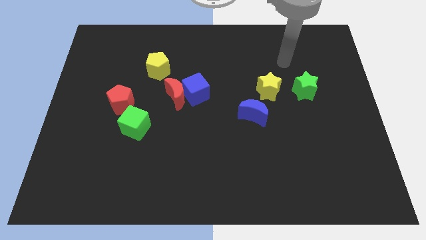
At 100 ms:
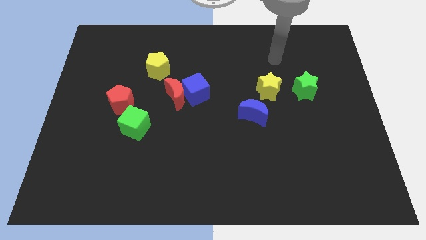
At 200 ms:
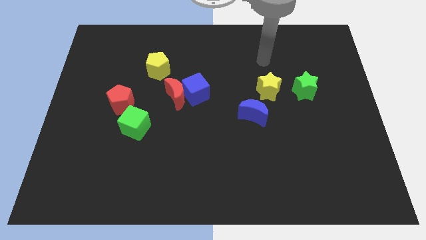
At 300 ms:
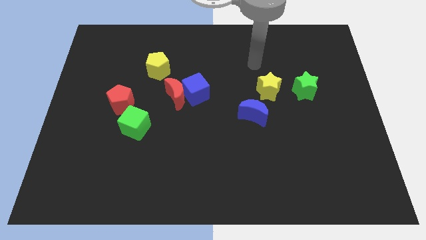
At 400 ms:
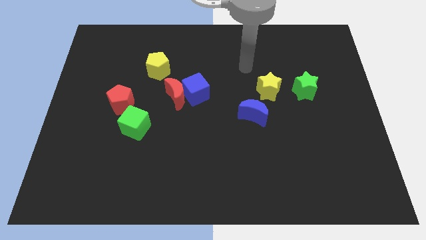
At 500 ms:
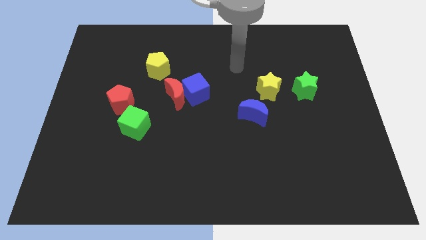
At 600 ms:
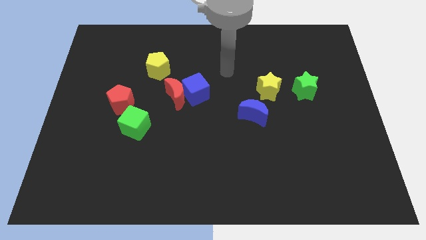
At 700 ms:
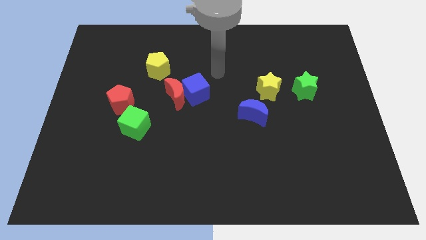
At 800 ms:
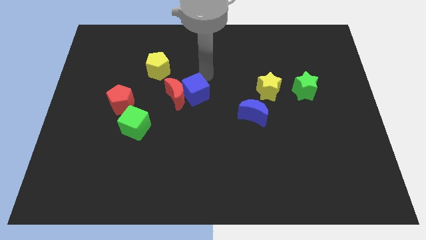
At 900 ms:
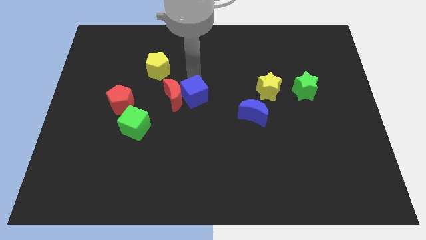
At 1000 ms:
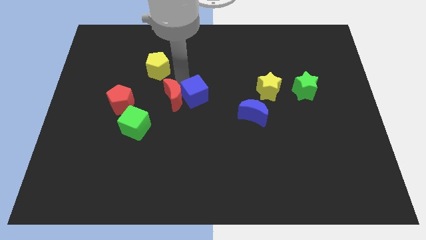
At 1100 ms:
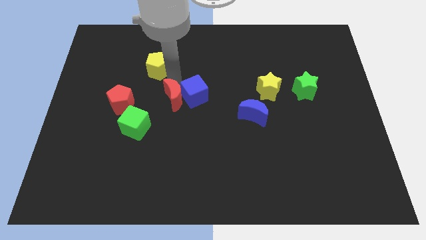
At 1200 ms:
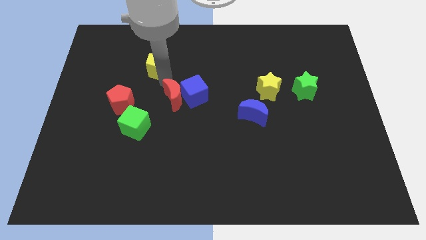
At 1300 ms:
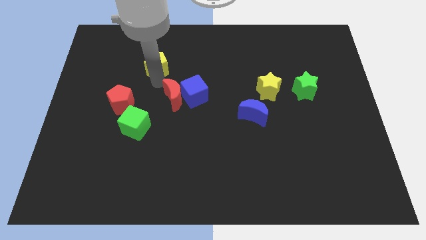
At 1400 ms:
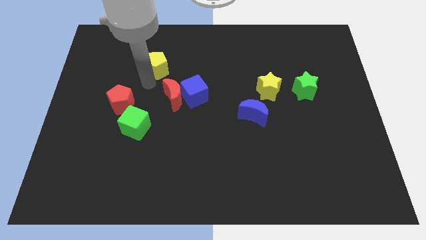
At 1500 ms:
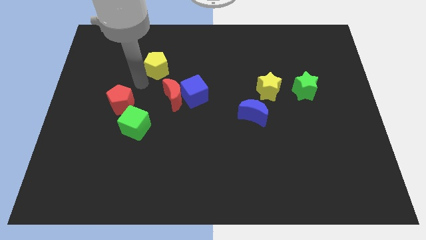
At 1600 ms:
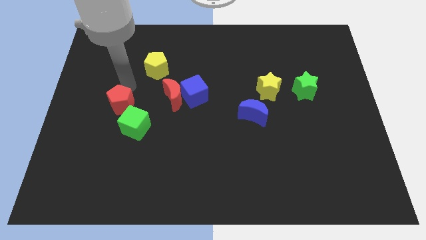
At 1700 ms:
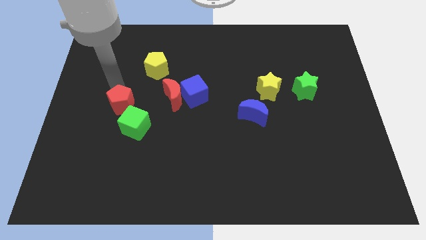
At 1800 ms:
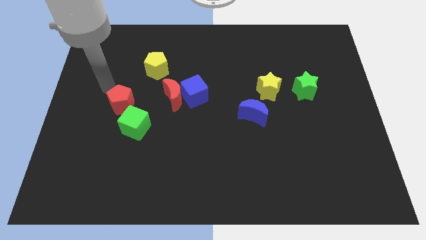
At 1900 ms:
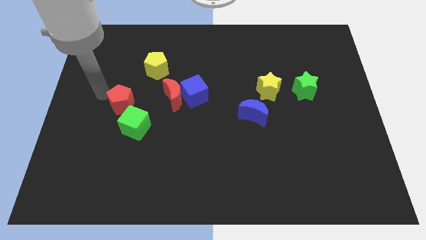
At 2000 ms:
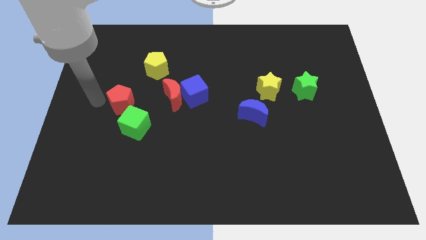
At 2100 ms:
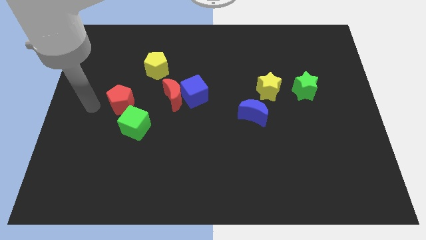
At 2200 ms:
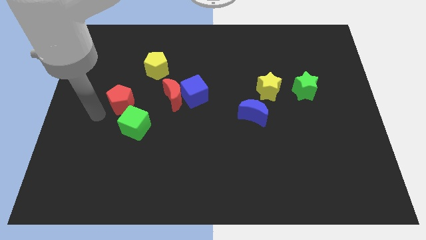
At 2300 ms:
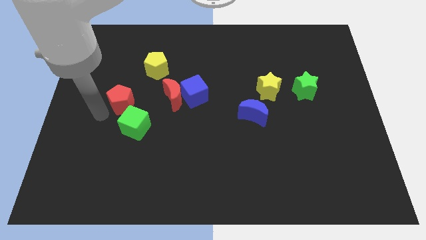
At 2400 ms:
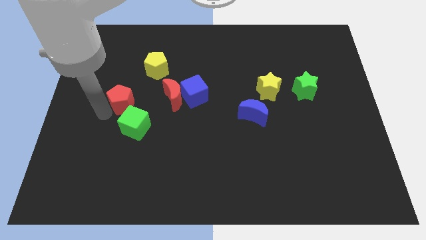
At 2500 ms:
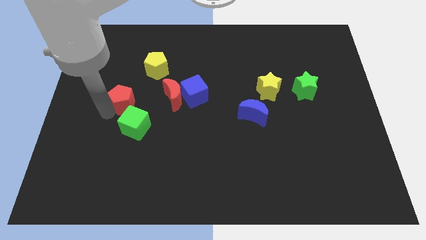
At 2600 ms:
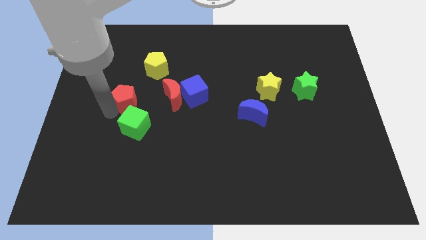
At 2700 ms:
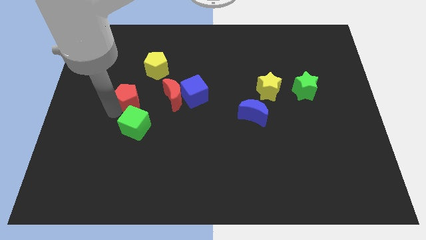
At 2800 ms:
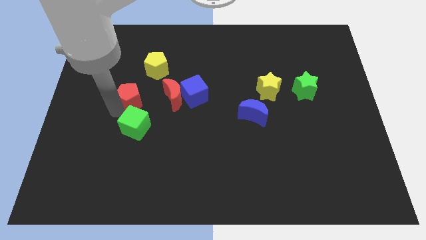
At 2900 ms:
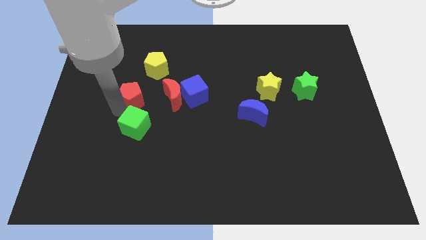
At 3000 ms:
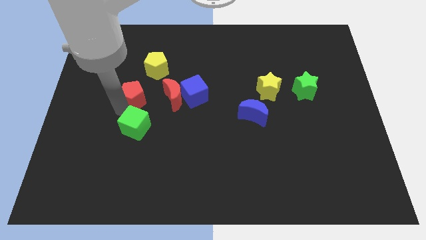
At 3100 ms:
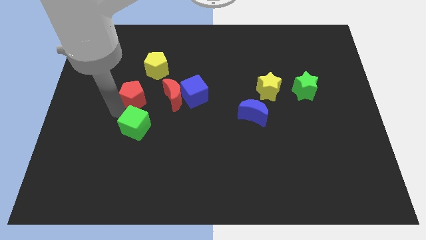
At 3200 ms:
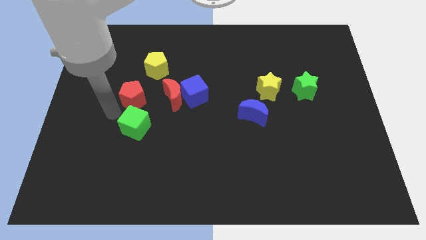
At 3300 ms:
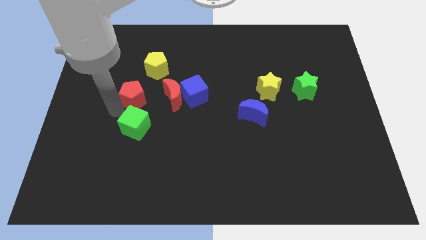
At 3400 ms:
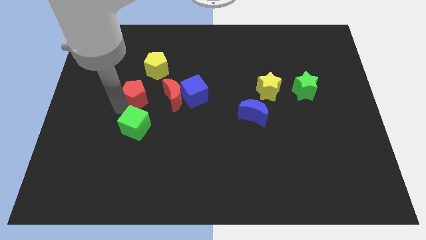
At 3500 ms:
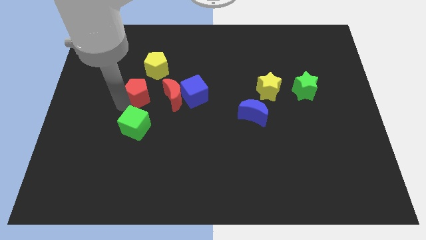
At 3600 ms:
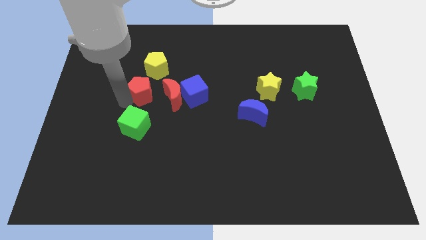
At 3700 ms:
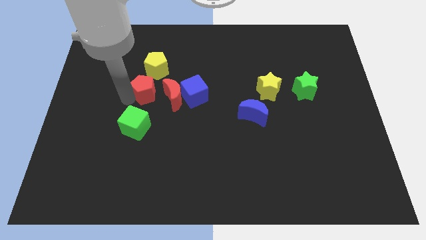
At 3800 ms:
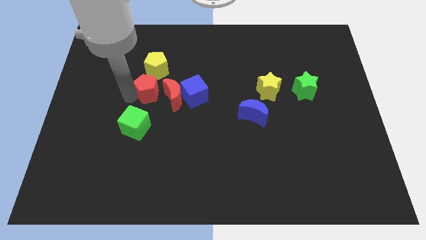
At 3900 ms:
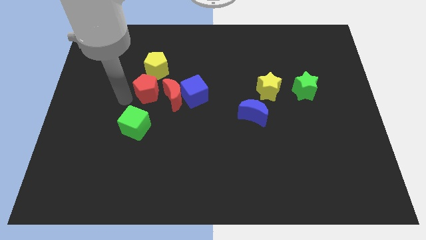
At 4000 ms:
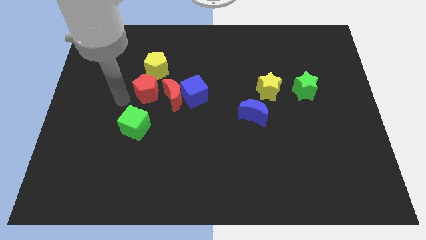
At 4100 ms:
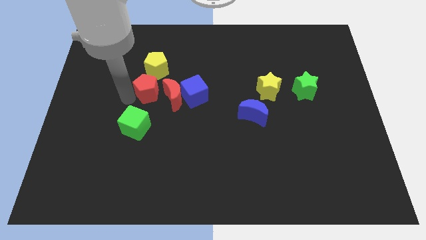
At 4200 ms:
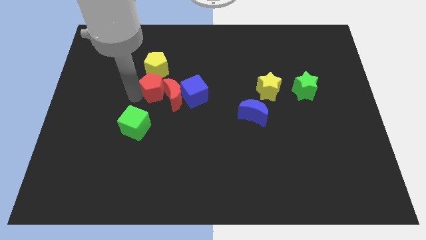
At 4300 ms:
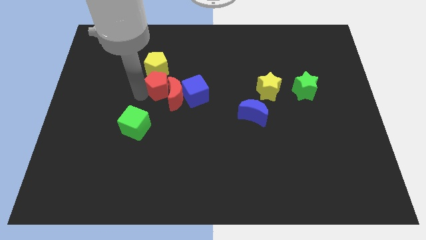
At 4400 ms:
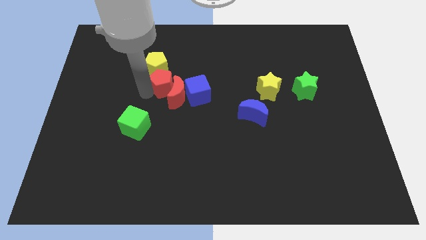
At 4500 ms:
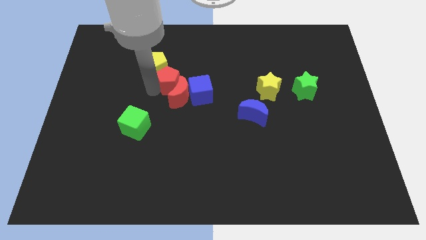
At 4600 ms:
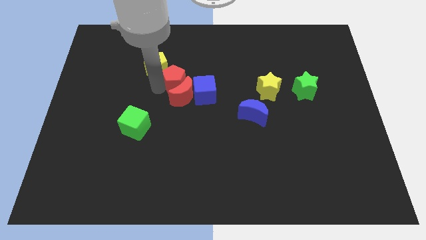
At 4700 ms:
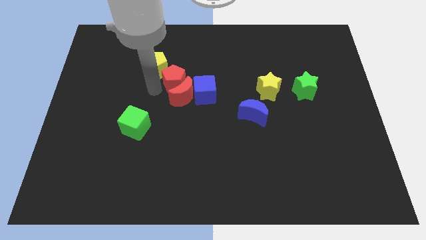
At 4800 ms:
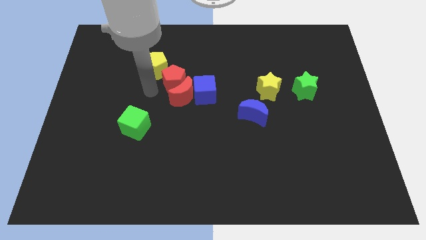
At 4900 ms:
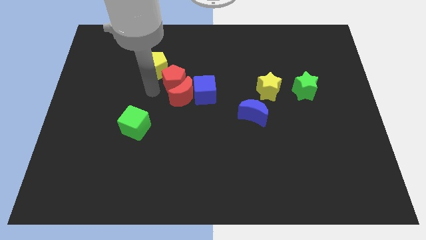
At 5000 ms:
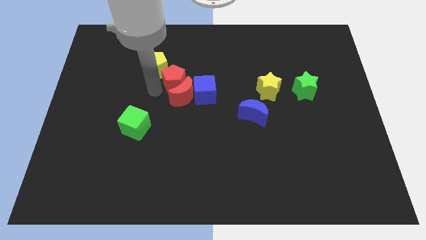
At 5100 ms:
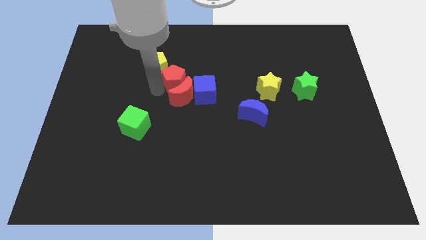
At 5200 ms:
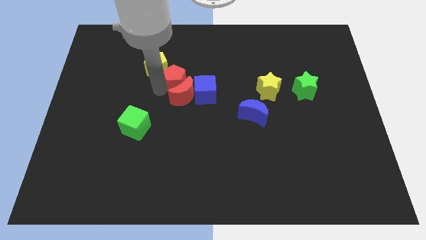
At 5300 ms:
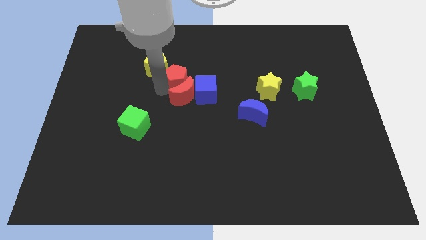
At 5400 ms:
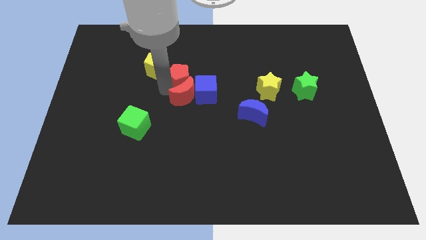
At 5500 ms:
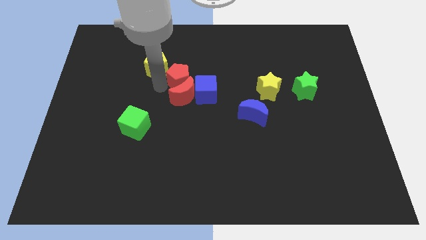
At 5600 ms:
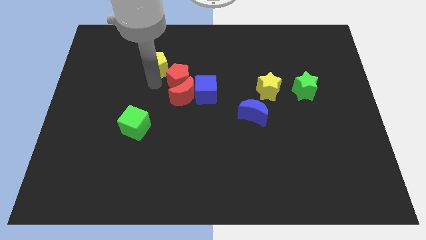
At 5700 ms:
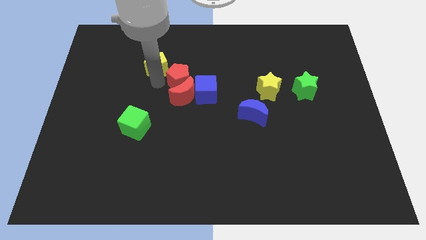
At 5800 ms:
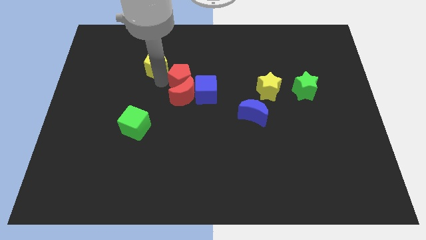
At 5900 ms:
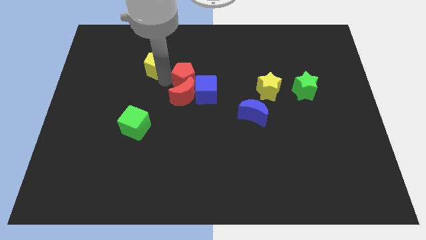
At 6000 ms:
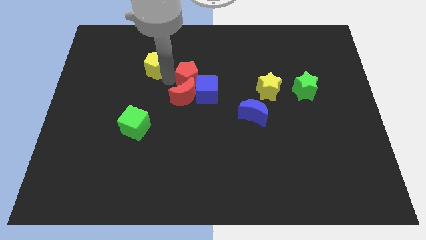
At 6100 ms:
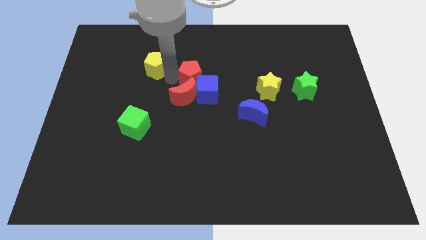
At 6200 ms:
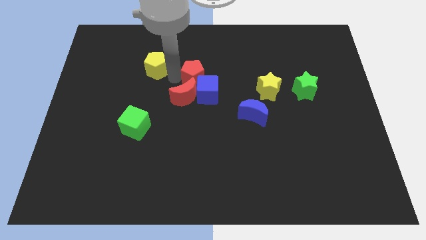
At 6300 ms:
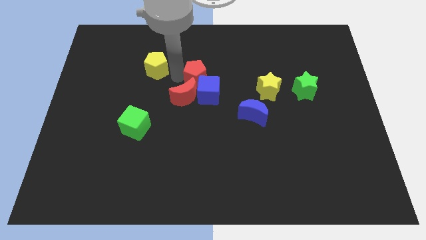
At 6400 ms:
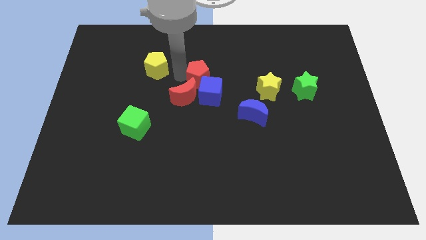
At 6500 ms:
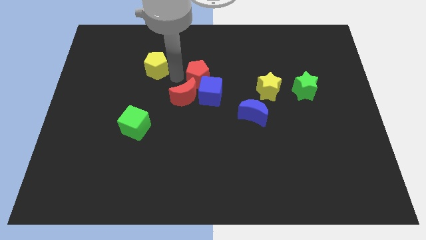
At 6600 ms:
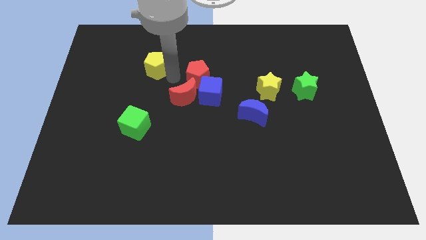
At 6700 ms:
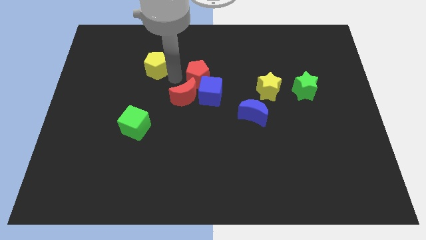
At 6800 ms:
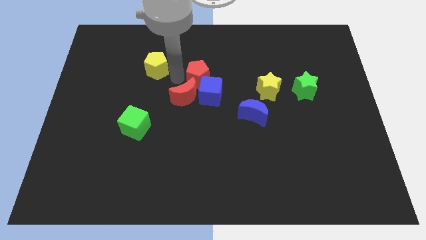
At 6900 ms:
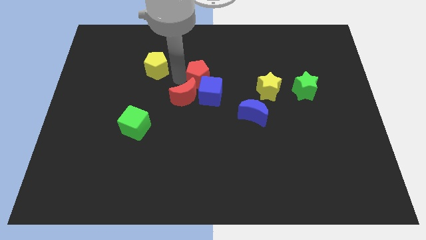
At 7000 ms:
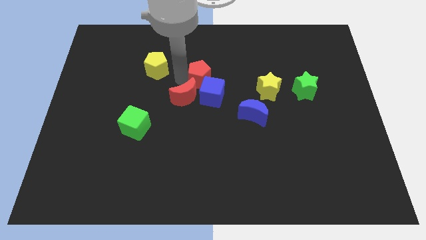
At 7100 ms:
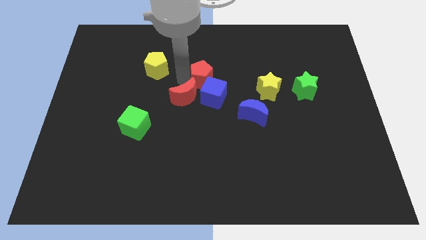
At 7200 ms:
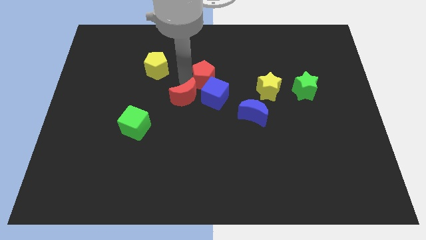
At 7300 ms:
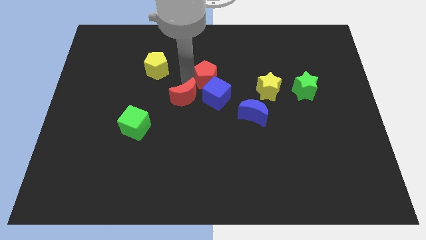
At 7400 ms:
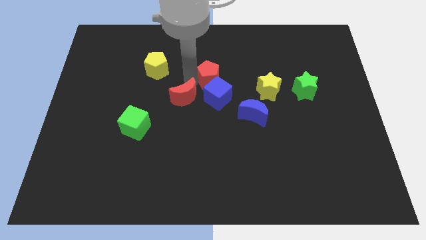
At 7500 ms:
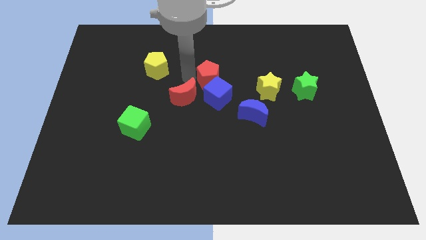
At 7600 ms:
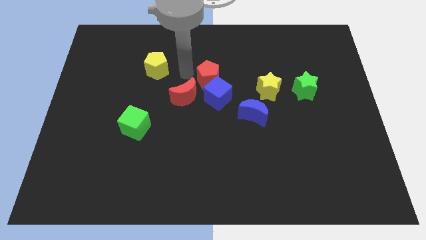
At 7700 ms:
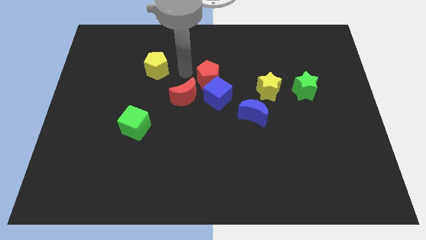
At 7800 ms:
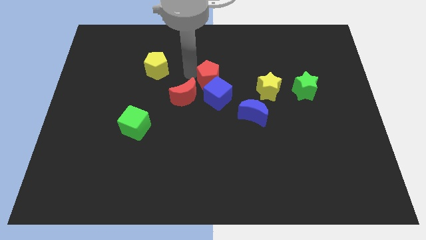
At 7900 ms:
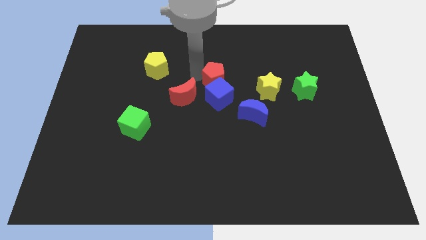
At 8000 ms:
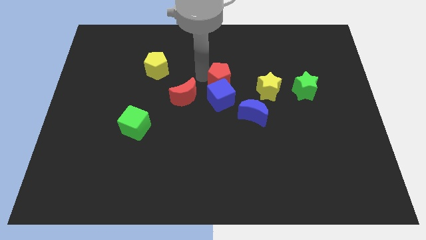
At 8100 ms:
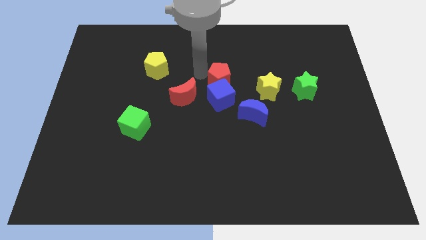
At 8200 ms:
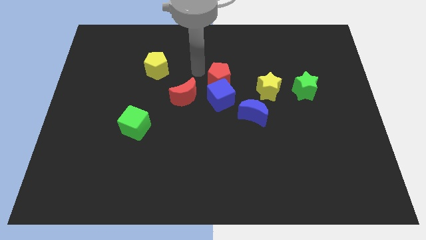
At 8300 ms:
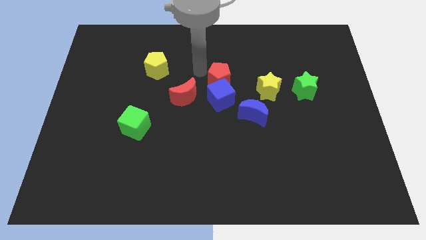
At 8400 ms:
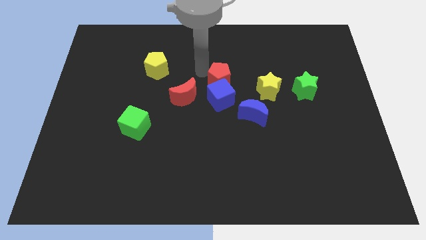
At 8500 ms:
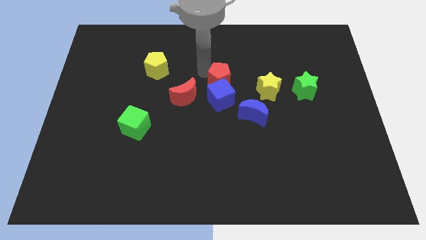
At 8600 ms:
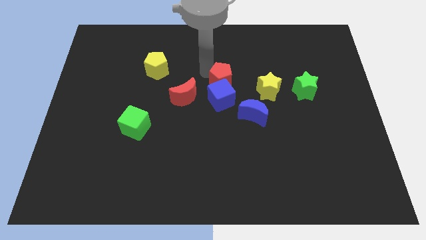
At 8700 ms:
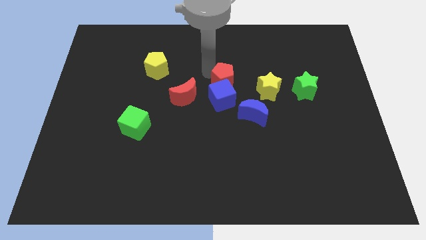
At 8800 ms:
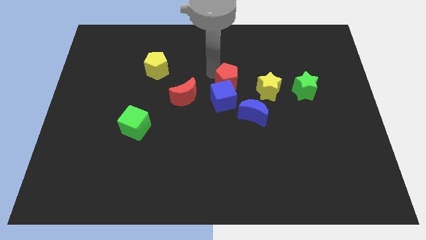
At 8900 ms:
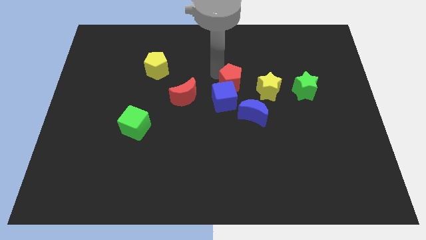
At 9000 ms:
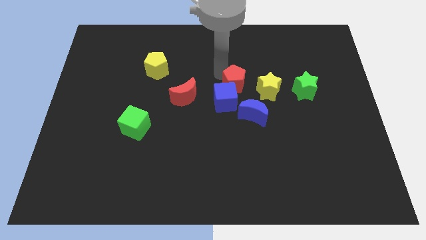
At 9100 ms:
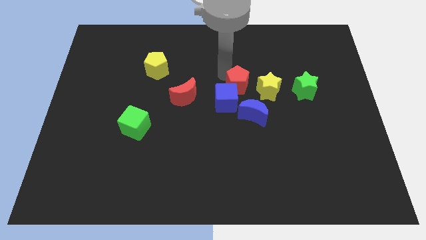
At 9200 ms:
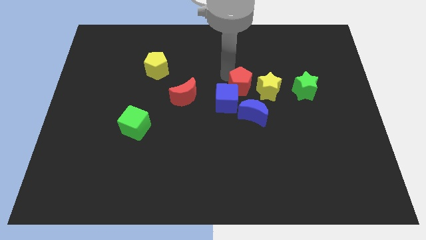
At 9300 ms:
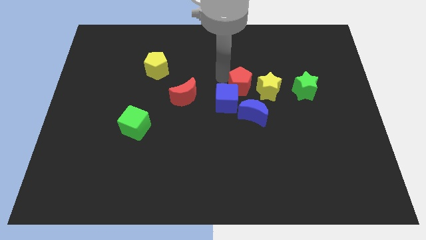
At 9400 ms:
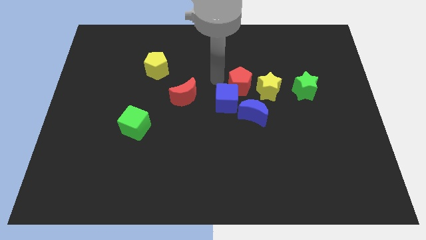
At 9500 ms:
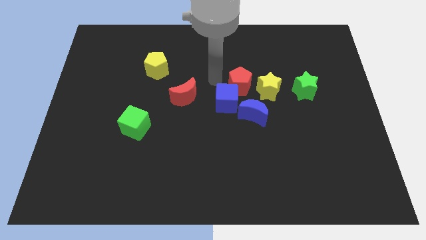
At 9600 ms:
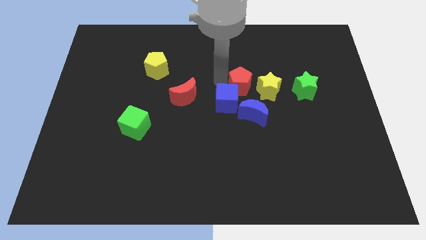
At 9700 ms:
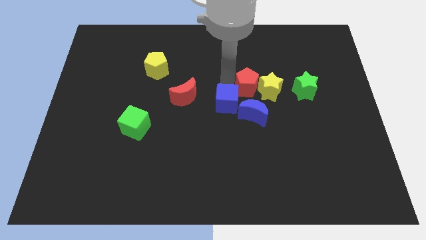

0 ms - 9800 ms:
put the red pentagon towards the yellow star
